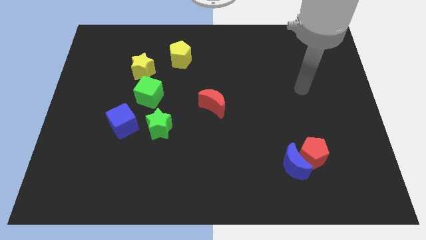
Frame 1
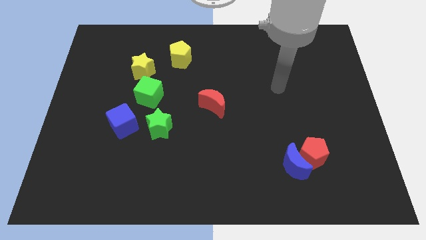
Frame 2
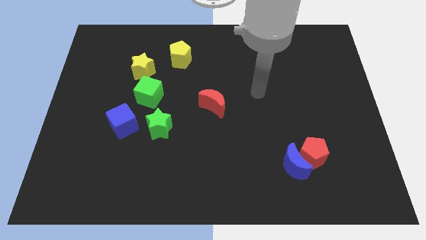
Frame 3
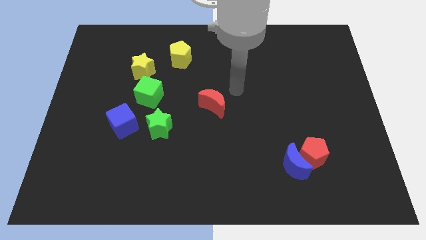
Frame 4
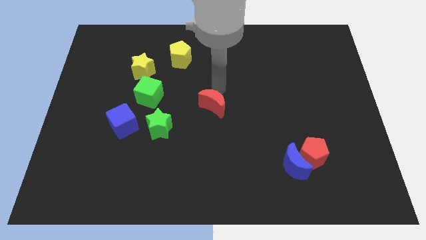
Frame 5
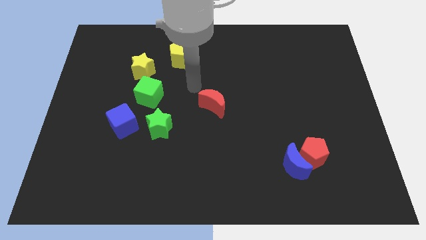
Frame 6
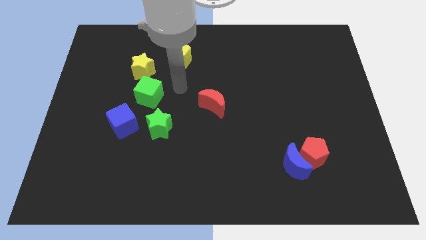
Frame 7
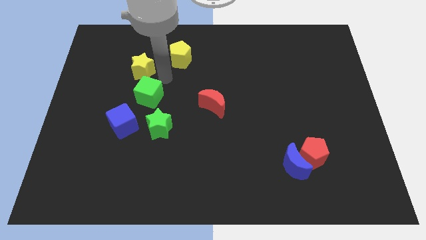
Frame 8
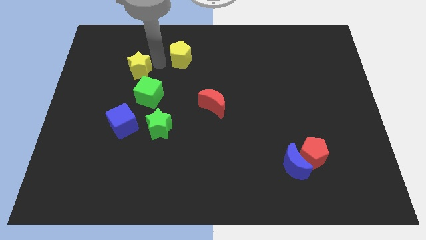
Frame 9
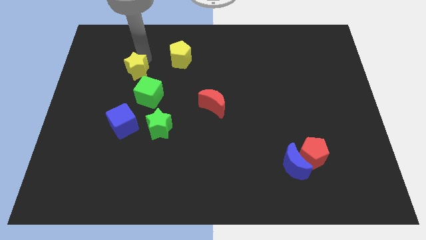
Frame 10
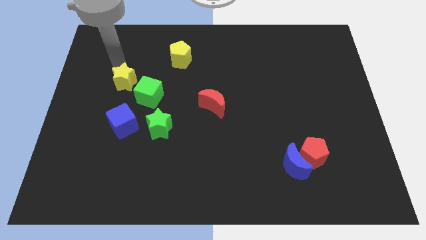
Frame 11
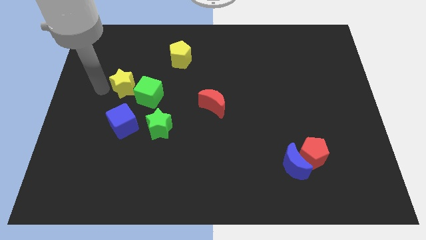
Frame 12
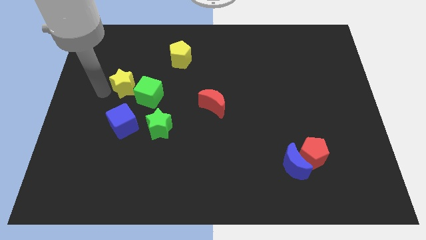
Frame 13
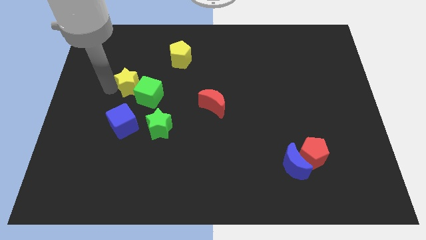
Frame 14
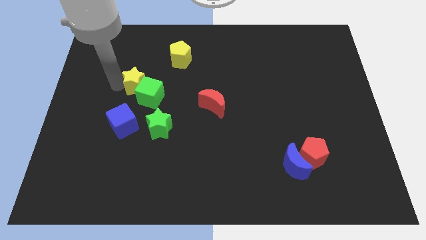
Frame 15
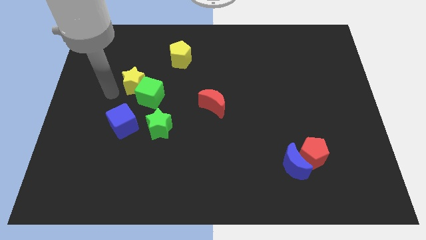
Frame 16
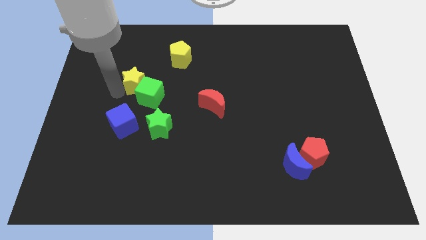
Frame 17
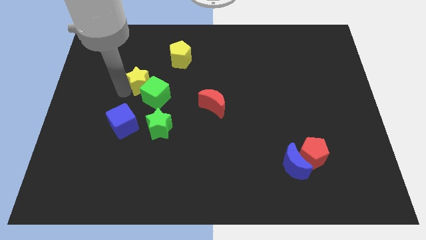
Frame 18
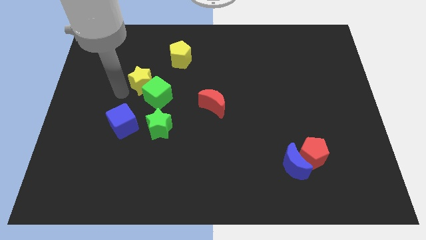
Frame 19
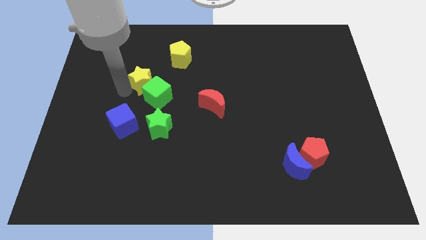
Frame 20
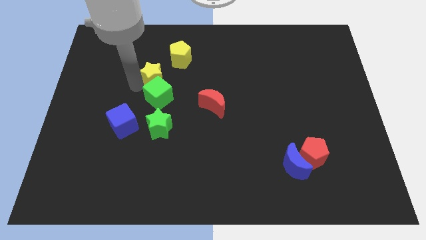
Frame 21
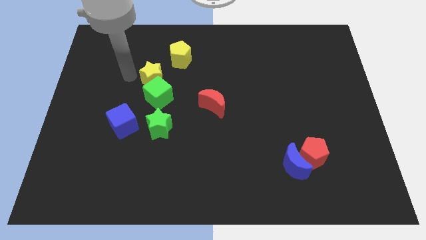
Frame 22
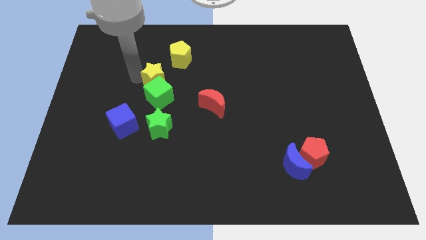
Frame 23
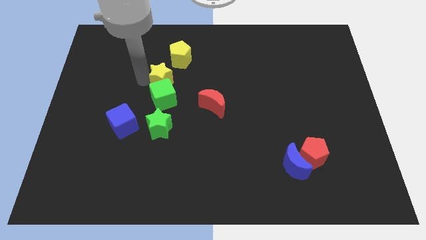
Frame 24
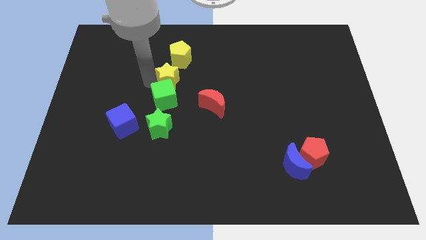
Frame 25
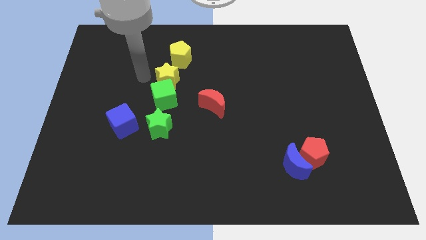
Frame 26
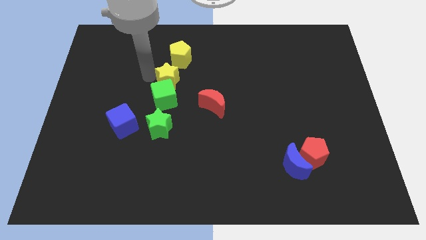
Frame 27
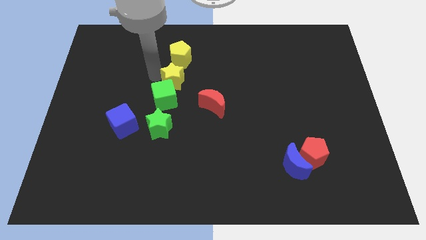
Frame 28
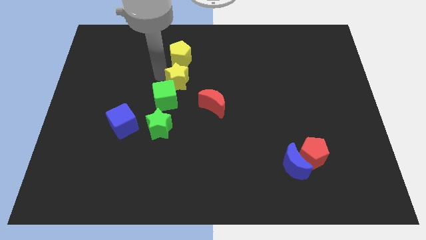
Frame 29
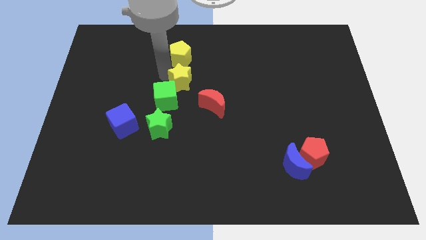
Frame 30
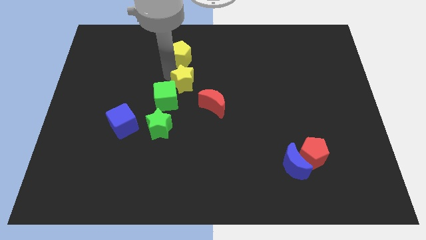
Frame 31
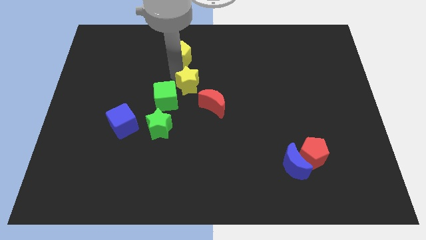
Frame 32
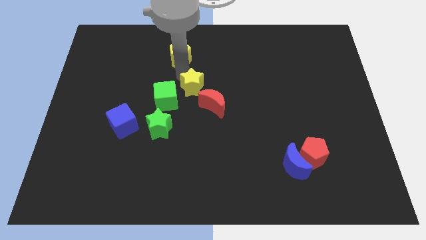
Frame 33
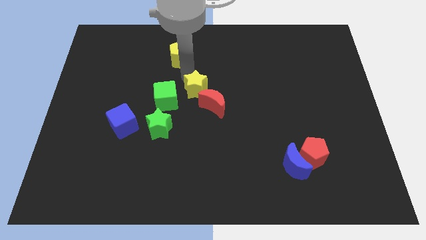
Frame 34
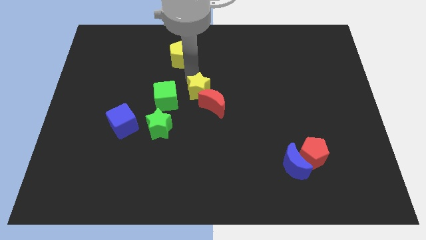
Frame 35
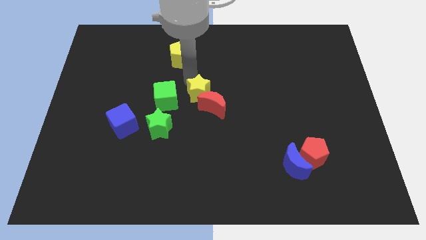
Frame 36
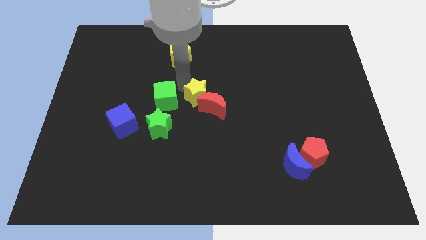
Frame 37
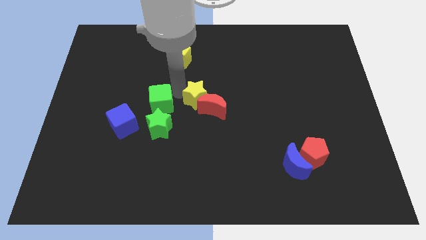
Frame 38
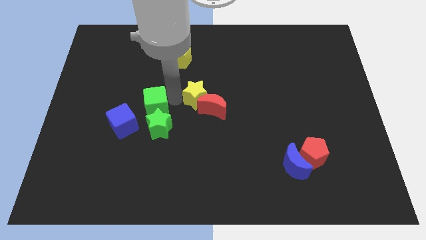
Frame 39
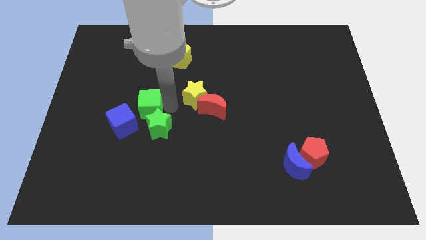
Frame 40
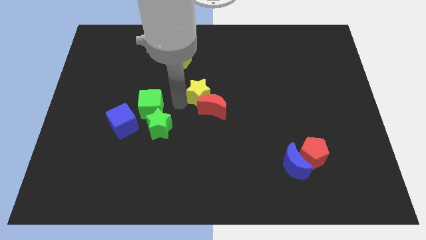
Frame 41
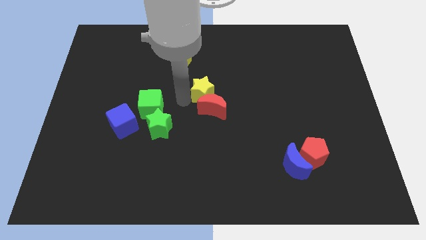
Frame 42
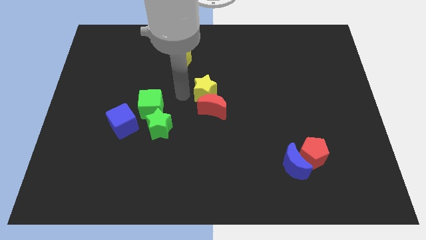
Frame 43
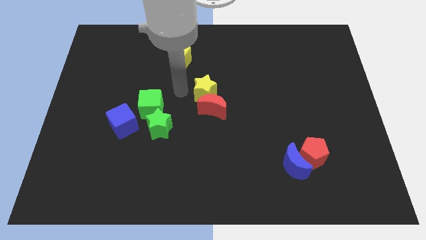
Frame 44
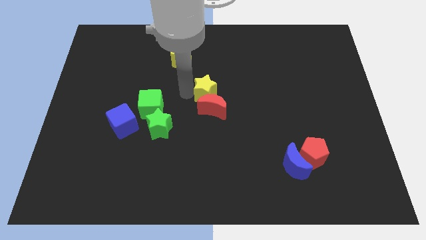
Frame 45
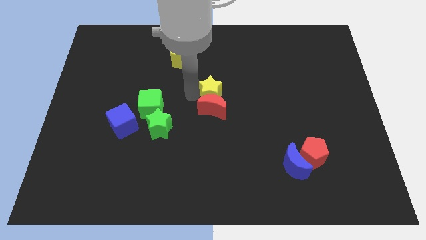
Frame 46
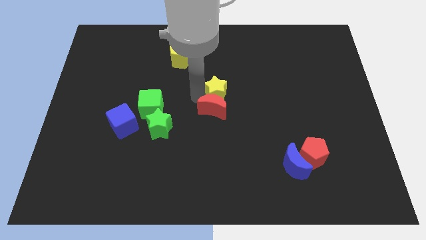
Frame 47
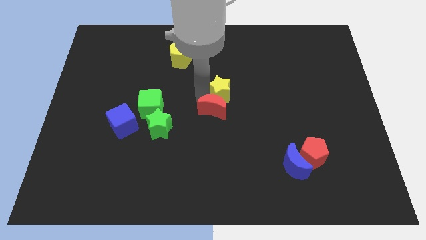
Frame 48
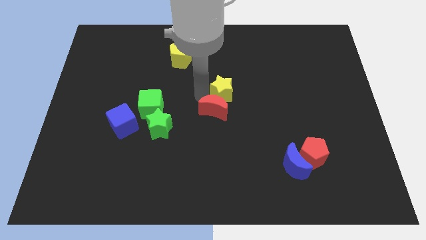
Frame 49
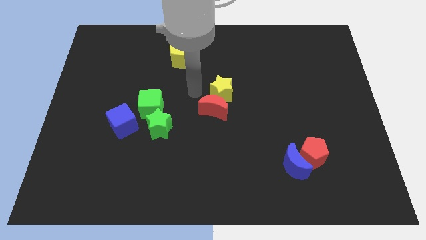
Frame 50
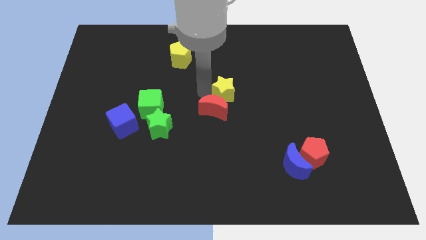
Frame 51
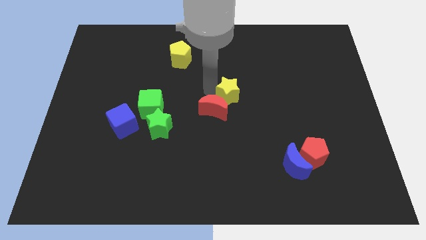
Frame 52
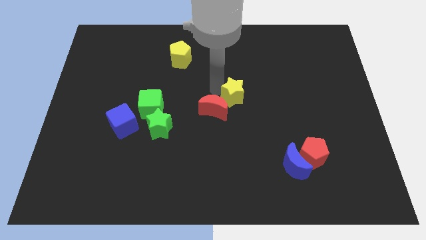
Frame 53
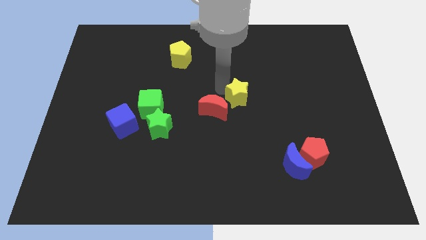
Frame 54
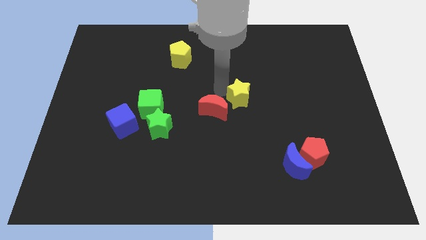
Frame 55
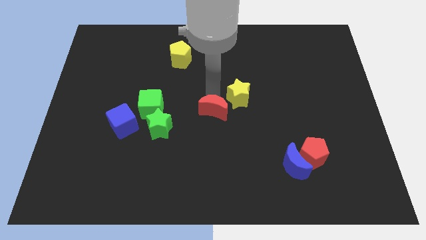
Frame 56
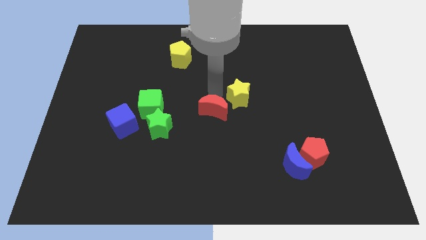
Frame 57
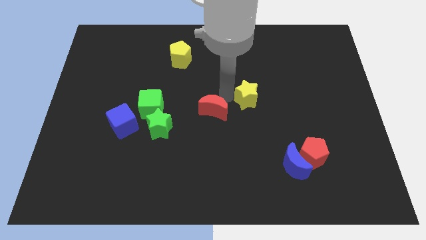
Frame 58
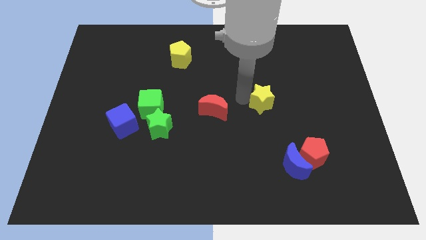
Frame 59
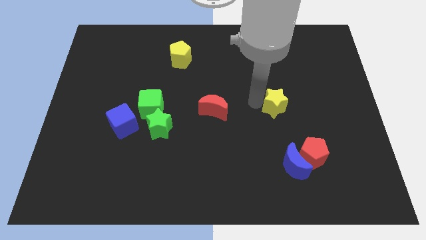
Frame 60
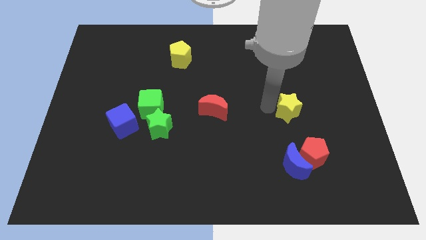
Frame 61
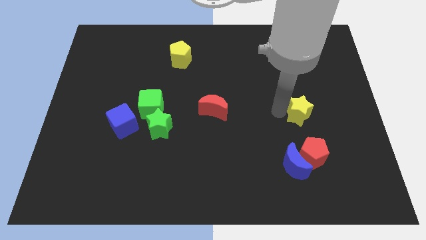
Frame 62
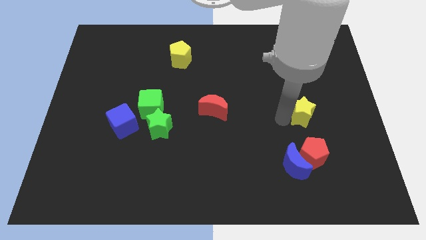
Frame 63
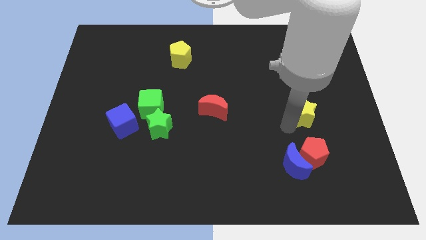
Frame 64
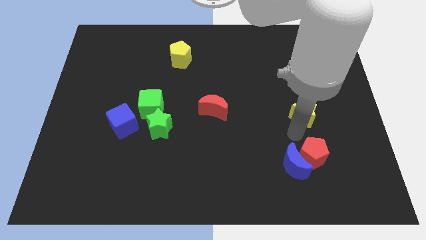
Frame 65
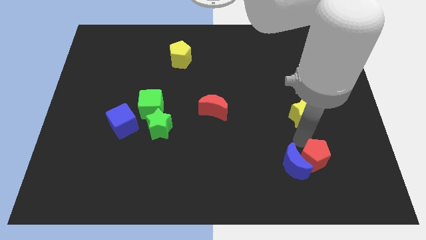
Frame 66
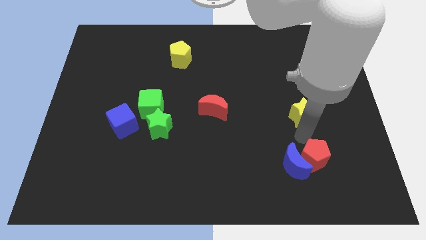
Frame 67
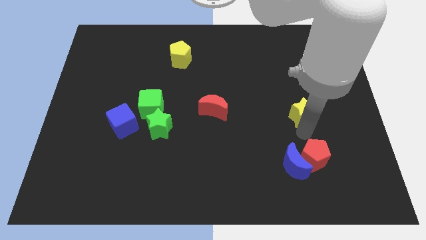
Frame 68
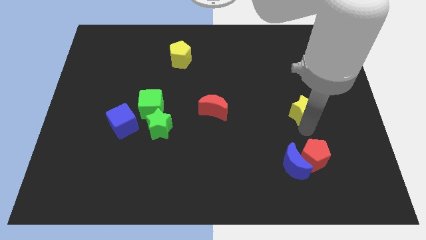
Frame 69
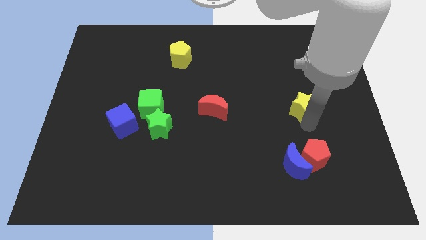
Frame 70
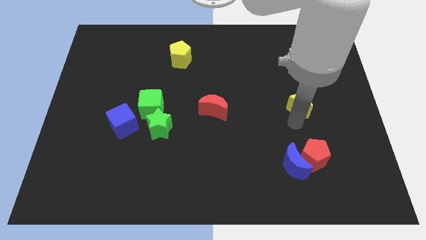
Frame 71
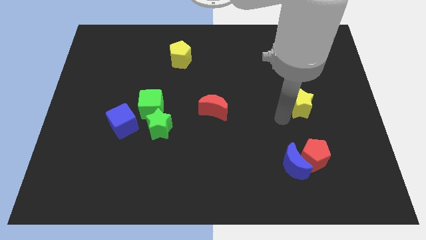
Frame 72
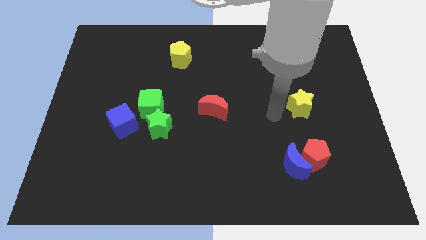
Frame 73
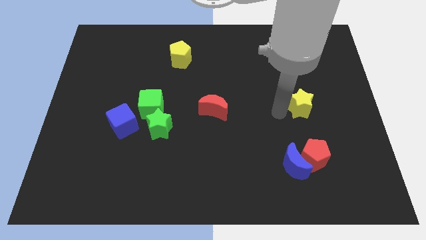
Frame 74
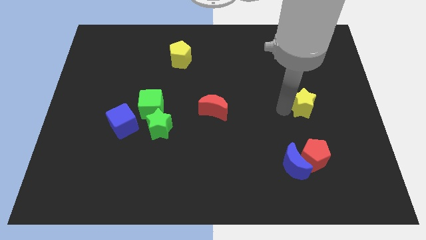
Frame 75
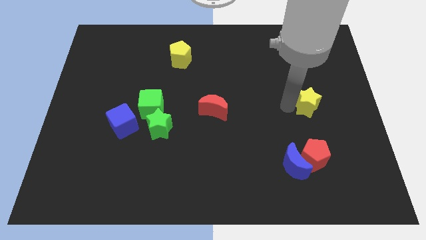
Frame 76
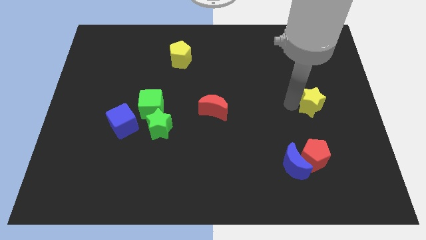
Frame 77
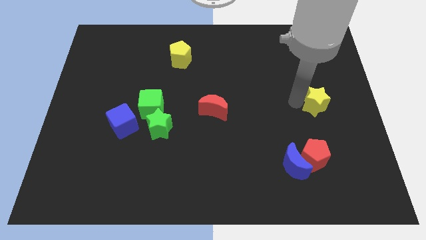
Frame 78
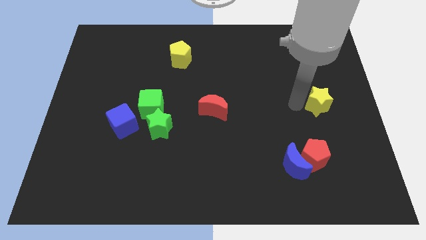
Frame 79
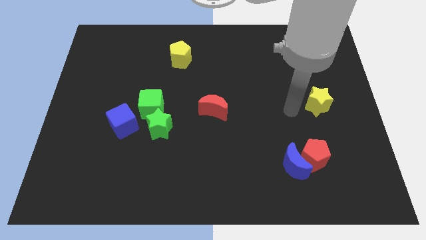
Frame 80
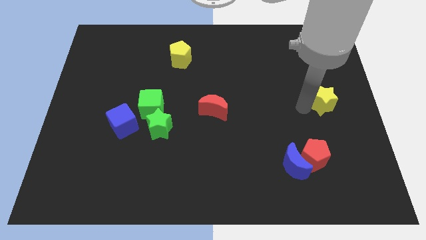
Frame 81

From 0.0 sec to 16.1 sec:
push the yellow star to the right side
